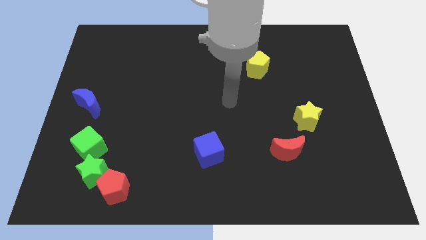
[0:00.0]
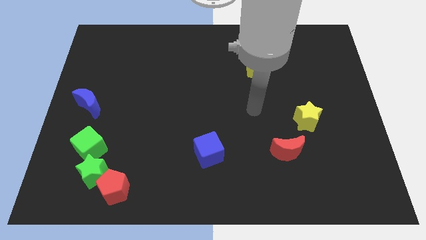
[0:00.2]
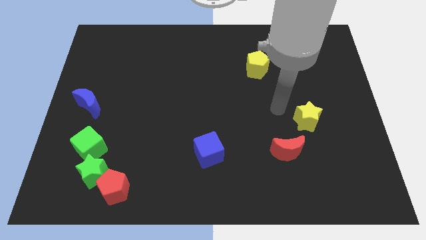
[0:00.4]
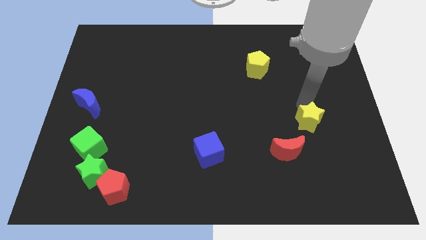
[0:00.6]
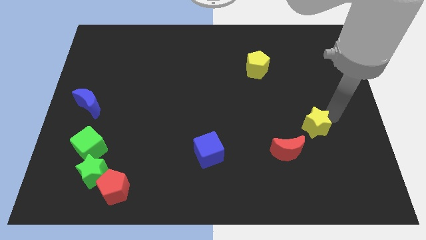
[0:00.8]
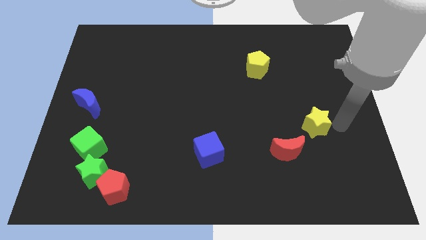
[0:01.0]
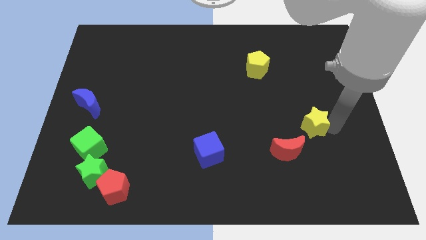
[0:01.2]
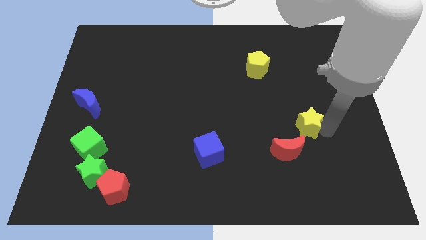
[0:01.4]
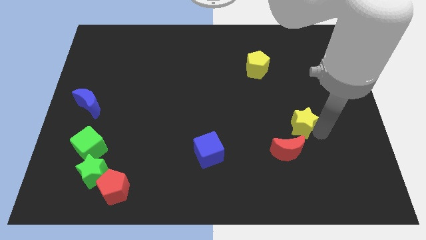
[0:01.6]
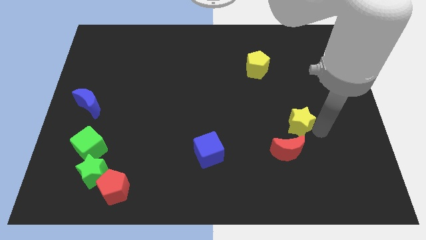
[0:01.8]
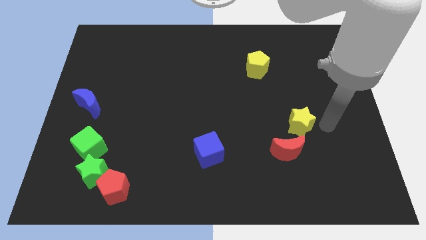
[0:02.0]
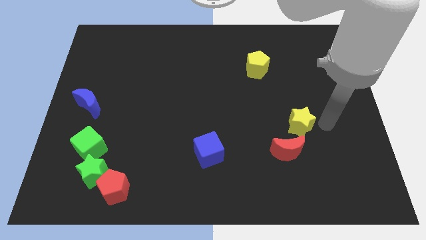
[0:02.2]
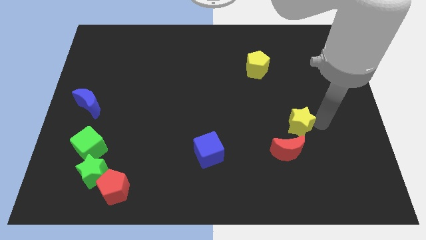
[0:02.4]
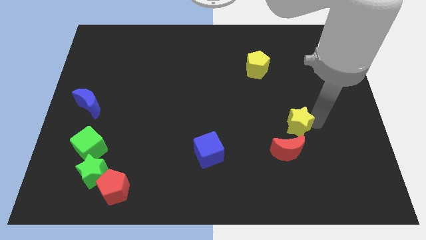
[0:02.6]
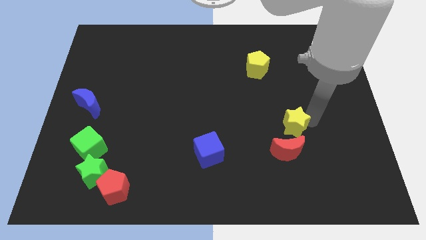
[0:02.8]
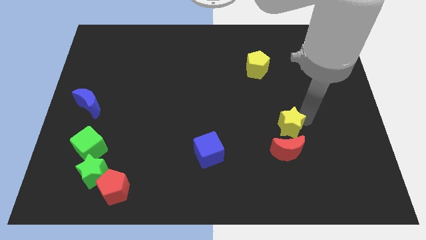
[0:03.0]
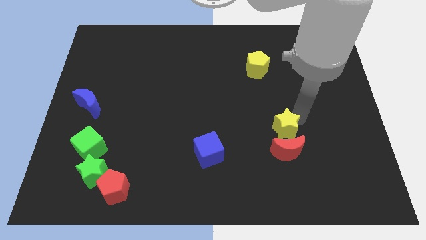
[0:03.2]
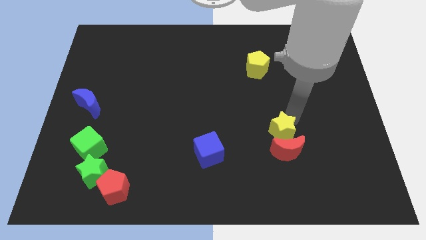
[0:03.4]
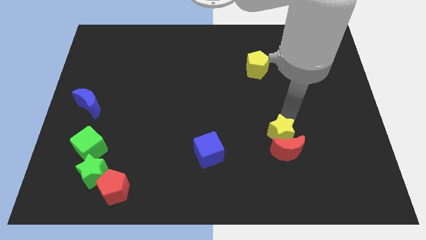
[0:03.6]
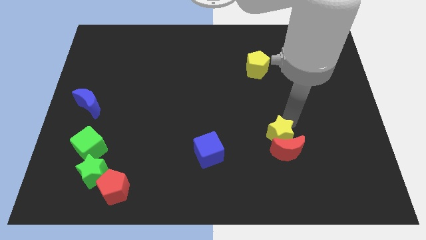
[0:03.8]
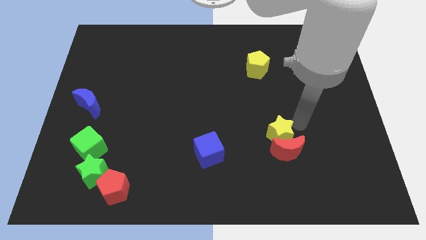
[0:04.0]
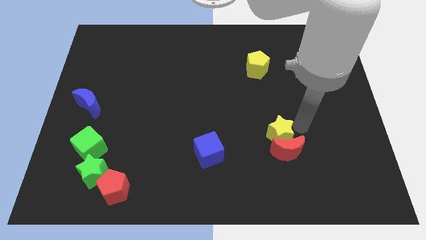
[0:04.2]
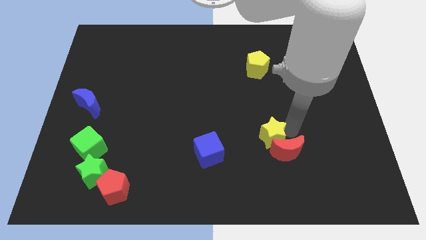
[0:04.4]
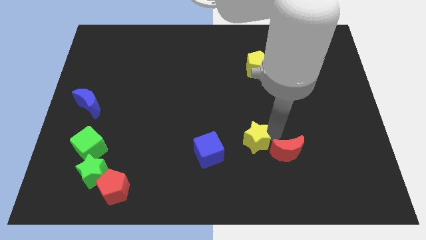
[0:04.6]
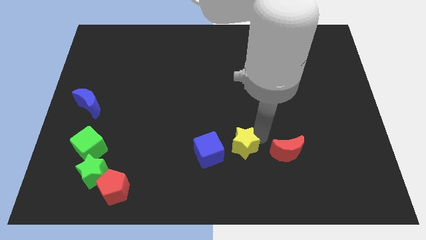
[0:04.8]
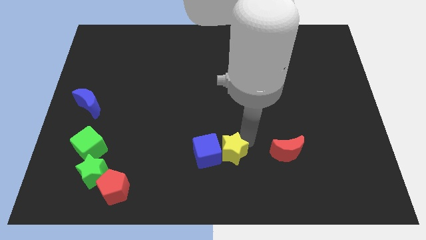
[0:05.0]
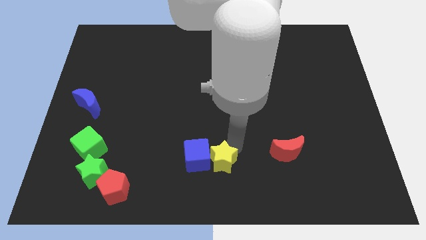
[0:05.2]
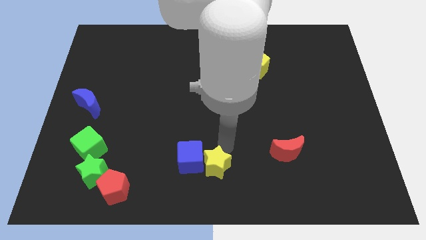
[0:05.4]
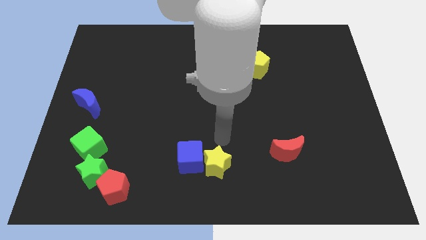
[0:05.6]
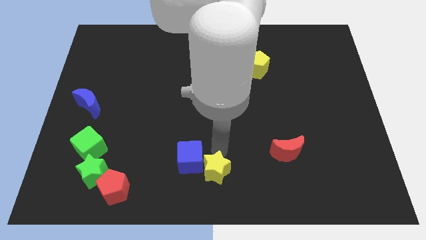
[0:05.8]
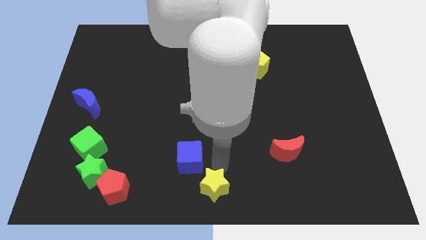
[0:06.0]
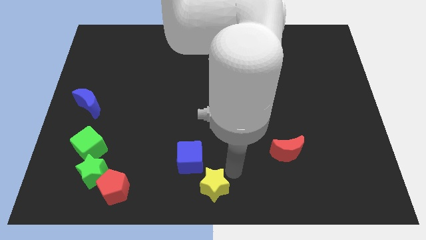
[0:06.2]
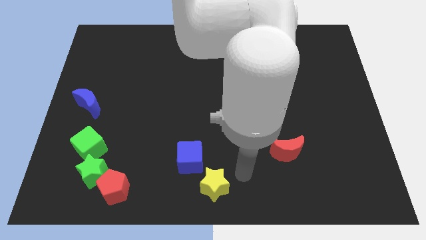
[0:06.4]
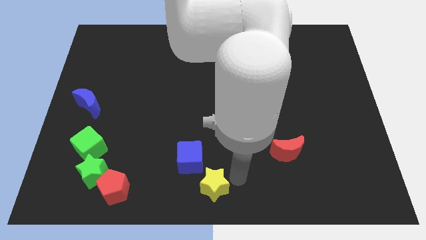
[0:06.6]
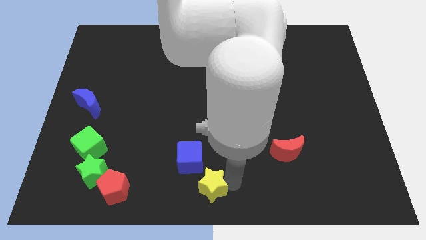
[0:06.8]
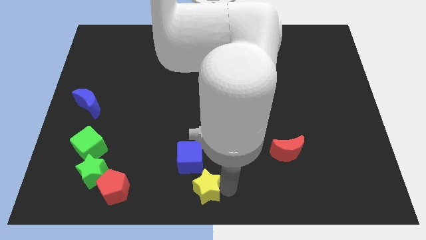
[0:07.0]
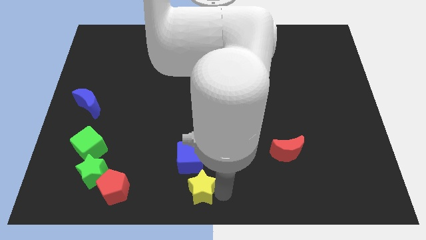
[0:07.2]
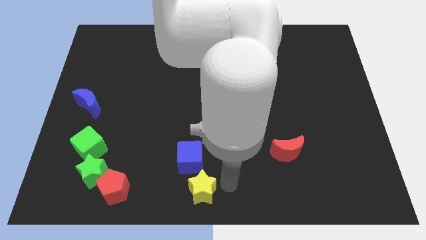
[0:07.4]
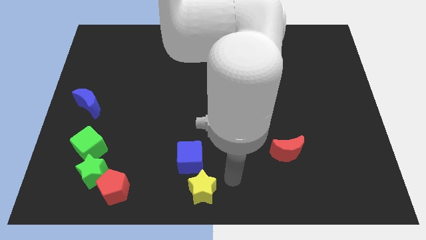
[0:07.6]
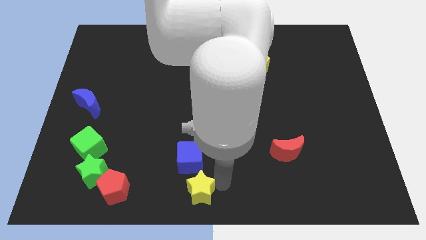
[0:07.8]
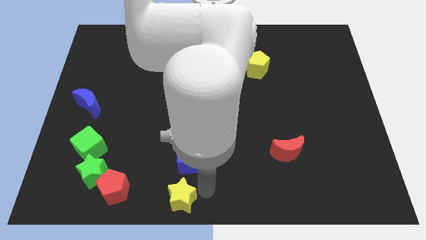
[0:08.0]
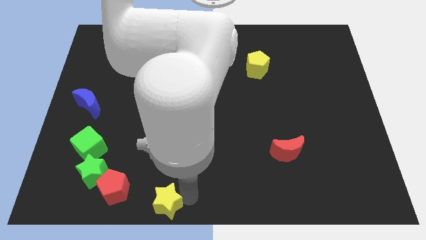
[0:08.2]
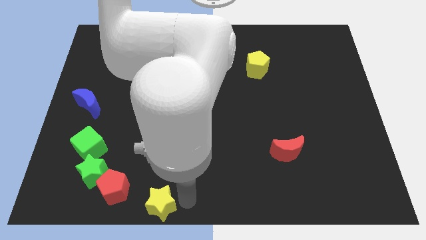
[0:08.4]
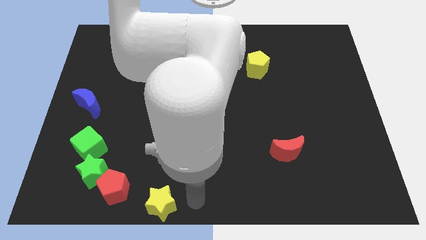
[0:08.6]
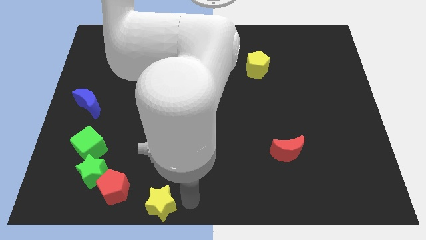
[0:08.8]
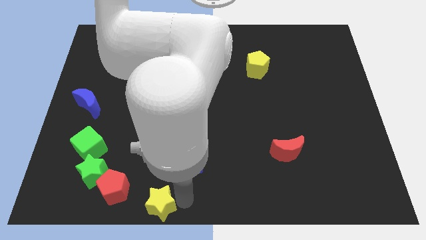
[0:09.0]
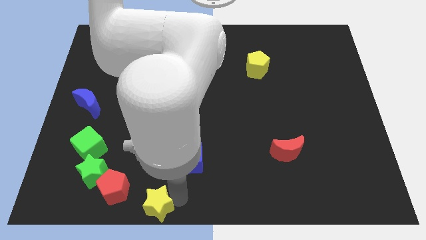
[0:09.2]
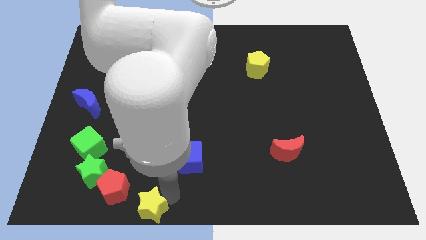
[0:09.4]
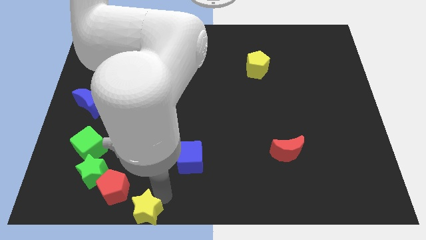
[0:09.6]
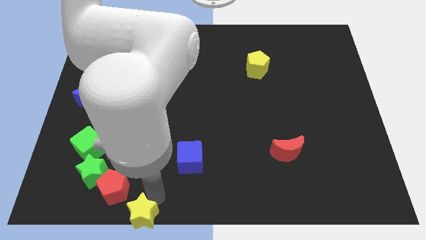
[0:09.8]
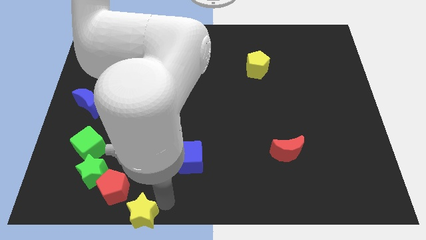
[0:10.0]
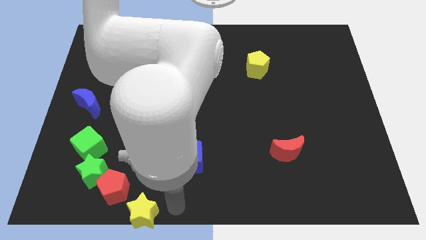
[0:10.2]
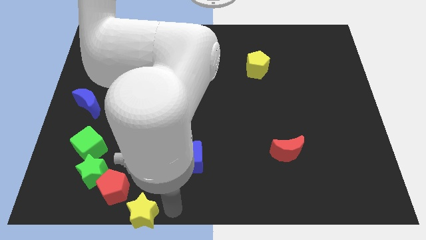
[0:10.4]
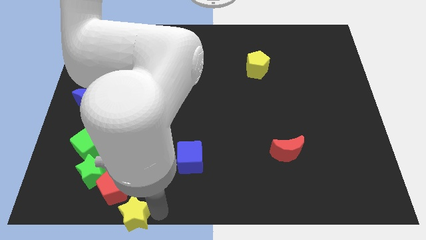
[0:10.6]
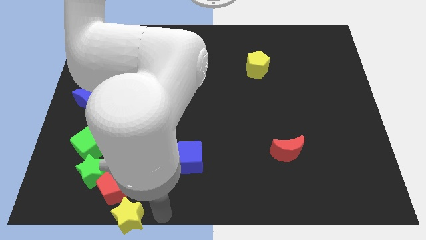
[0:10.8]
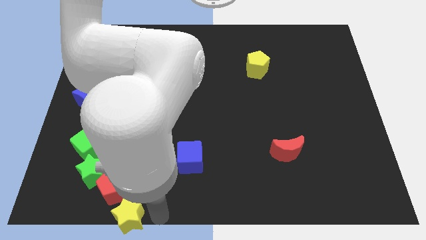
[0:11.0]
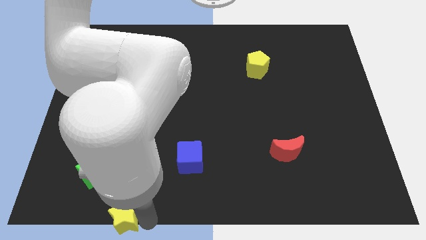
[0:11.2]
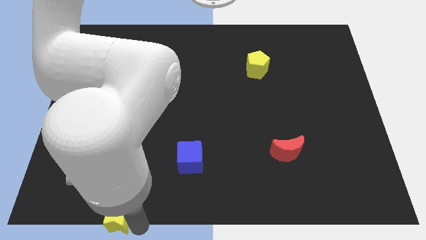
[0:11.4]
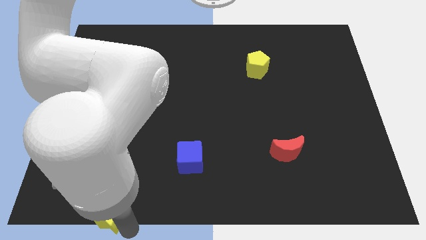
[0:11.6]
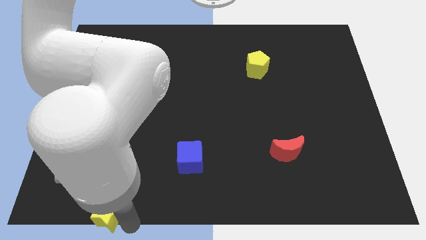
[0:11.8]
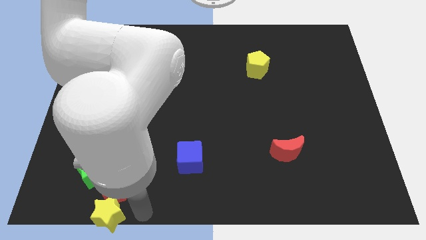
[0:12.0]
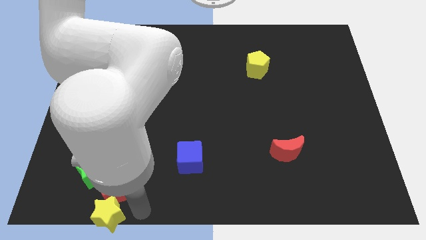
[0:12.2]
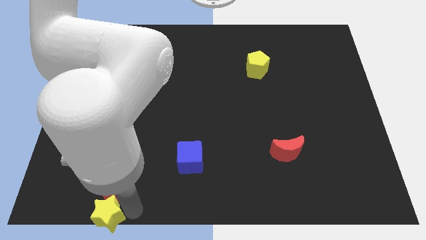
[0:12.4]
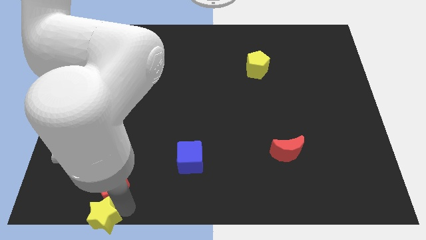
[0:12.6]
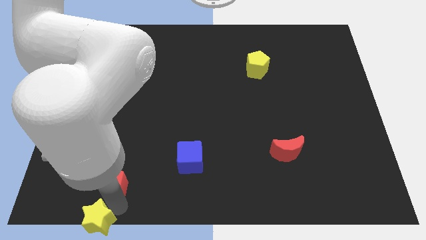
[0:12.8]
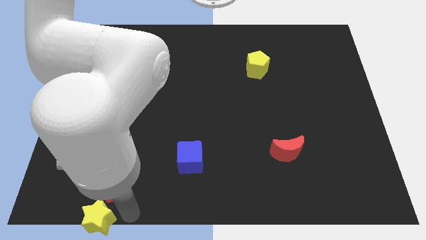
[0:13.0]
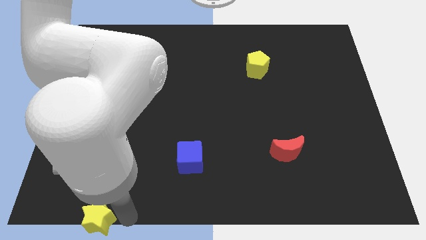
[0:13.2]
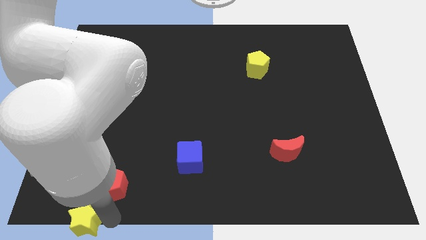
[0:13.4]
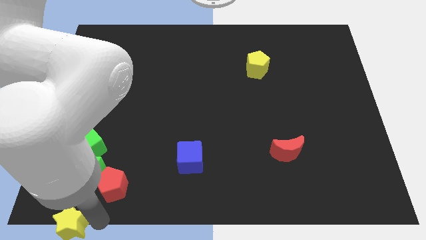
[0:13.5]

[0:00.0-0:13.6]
move the yellow star to the bottom left corner
